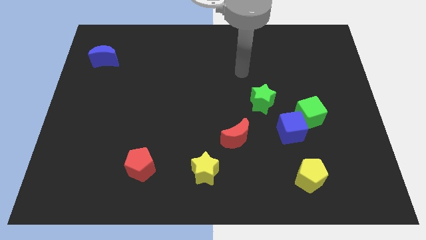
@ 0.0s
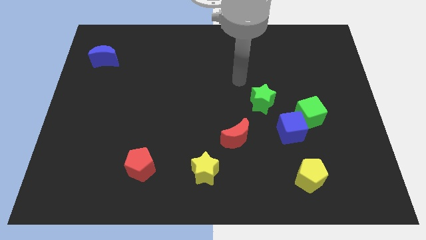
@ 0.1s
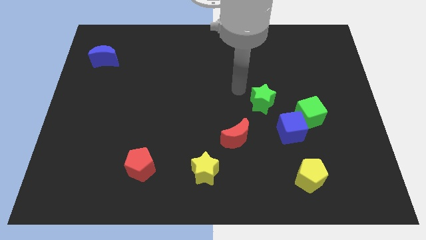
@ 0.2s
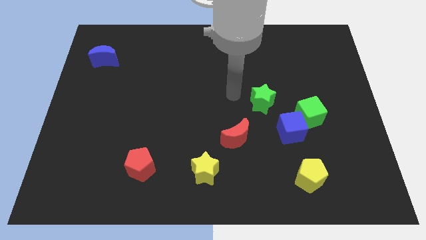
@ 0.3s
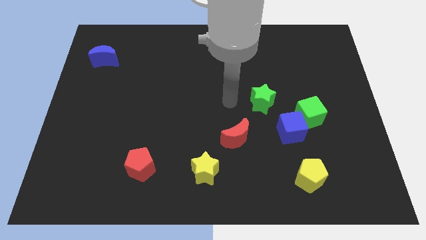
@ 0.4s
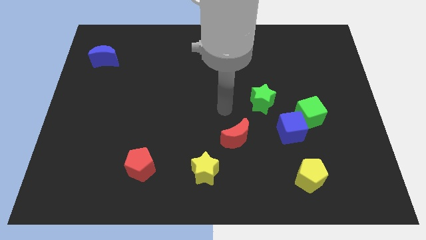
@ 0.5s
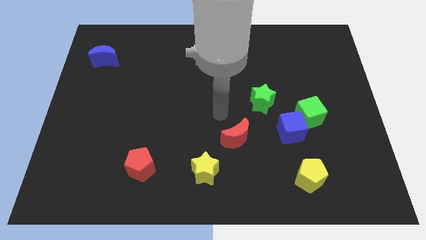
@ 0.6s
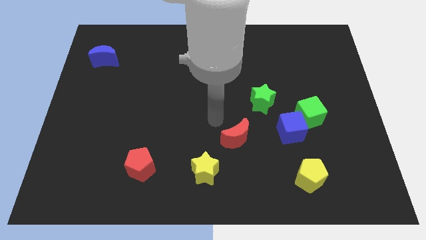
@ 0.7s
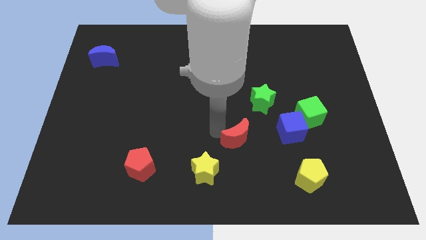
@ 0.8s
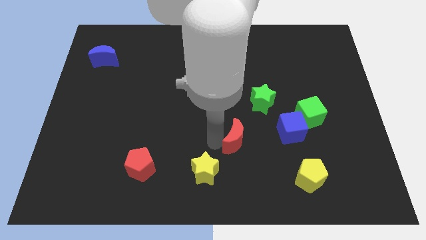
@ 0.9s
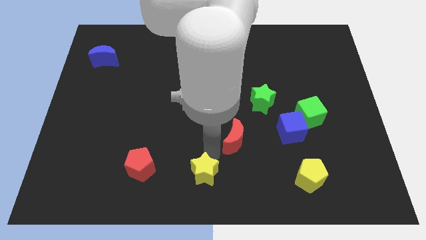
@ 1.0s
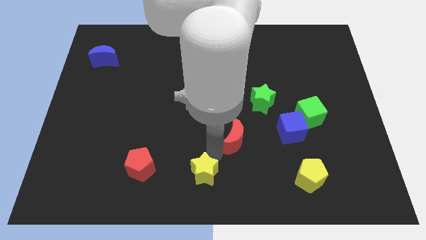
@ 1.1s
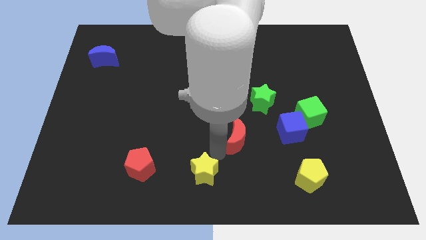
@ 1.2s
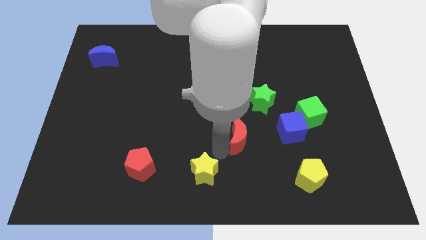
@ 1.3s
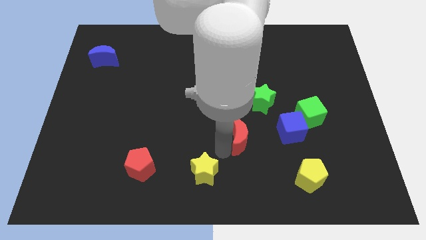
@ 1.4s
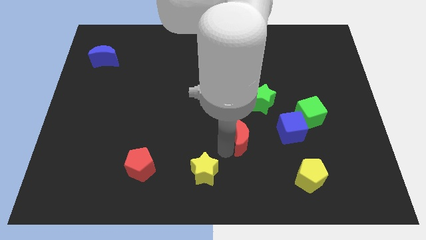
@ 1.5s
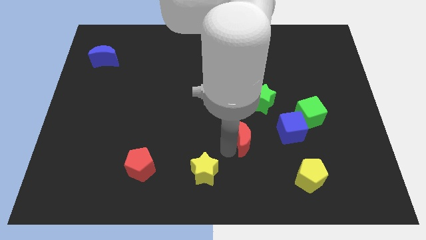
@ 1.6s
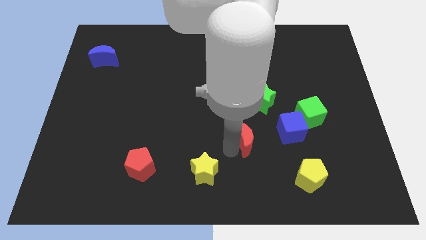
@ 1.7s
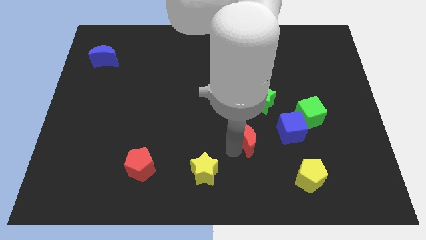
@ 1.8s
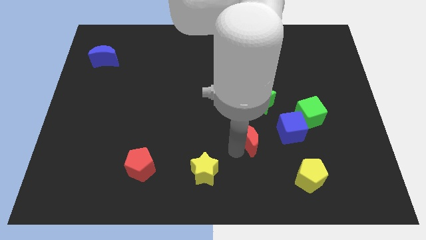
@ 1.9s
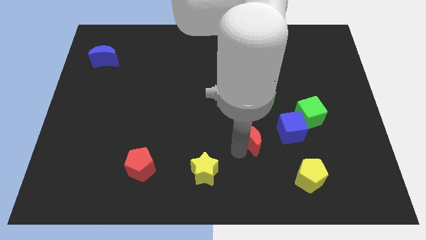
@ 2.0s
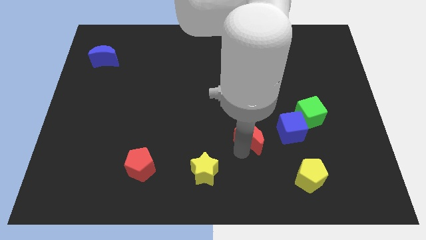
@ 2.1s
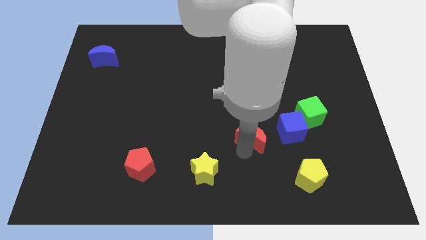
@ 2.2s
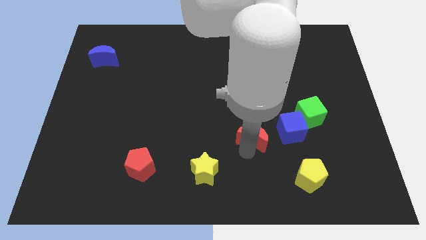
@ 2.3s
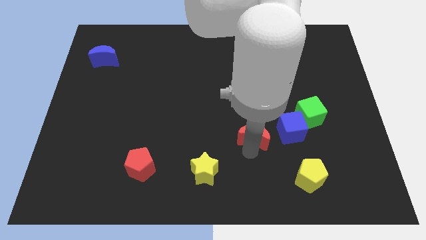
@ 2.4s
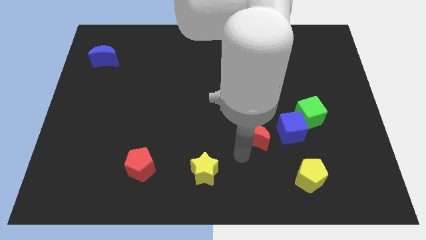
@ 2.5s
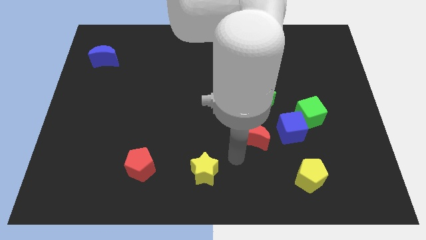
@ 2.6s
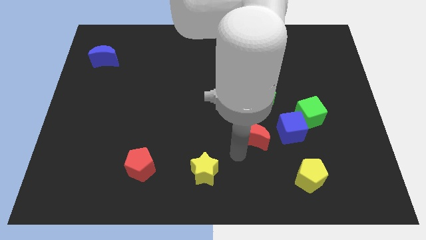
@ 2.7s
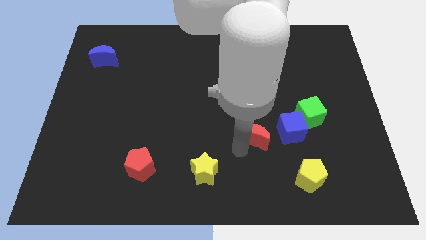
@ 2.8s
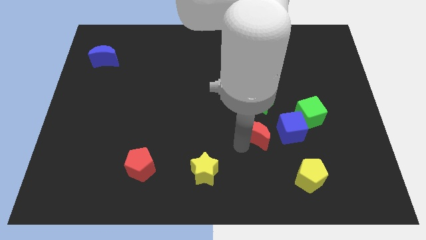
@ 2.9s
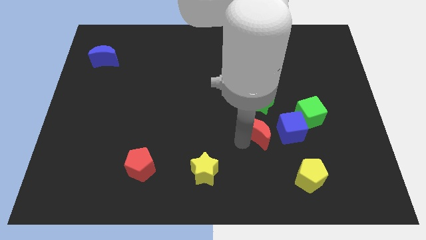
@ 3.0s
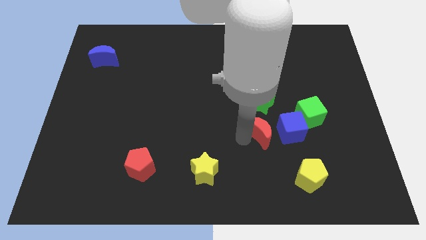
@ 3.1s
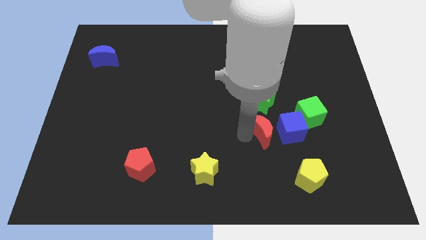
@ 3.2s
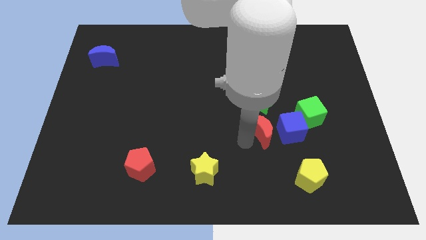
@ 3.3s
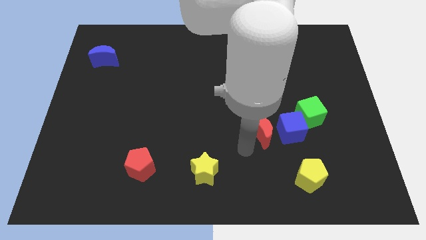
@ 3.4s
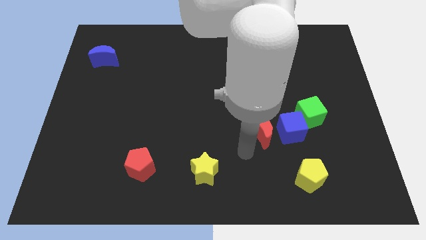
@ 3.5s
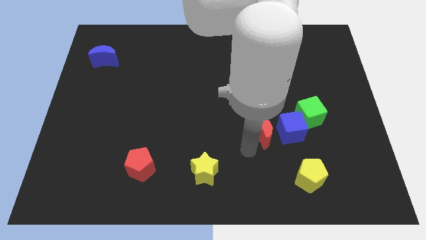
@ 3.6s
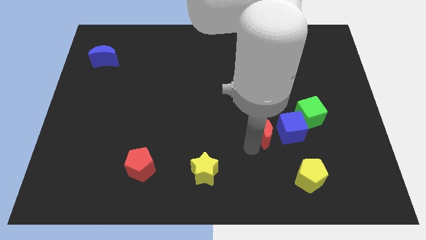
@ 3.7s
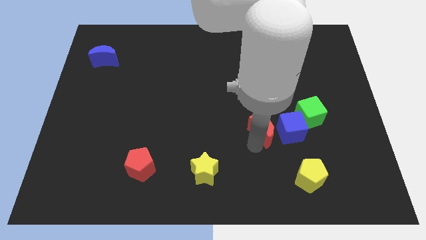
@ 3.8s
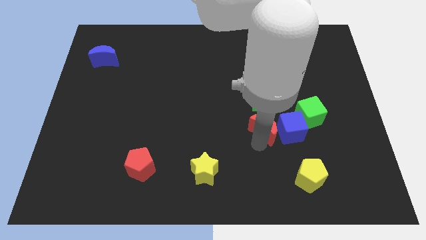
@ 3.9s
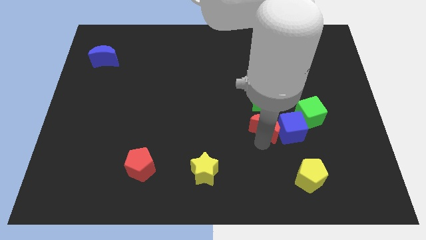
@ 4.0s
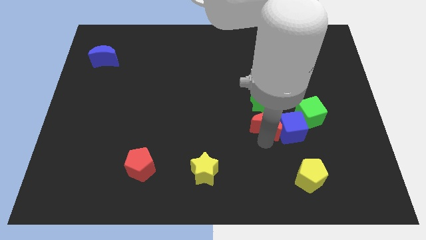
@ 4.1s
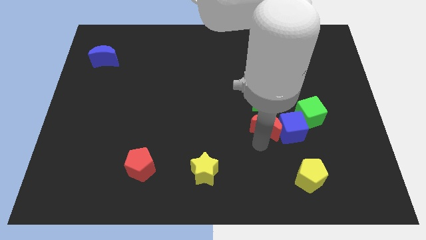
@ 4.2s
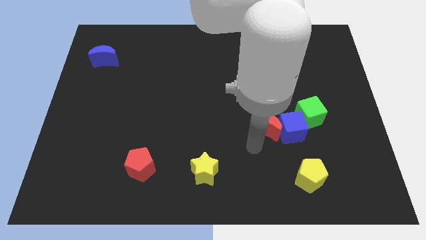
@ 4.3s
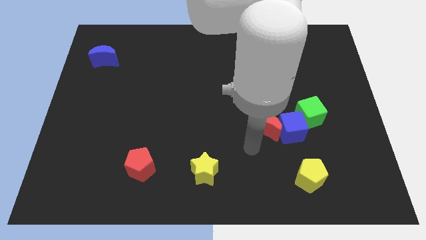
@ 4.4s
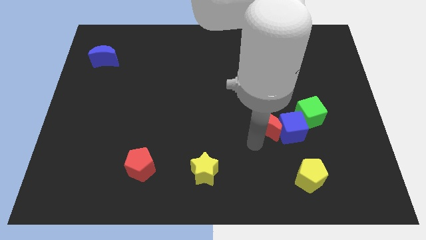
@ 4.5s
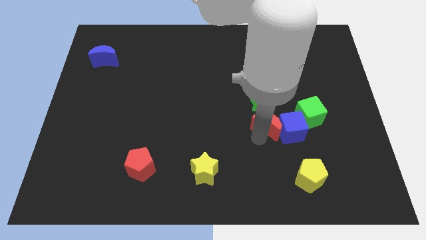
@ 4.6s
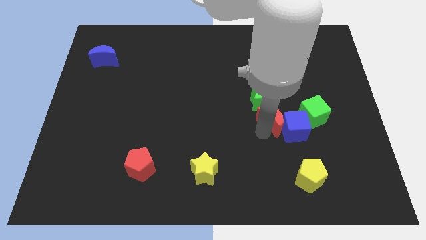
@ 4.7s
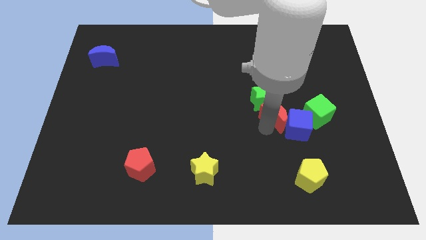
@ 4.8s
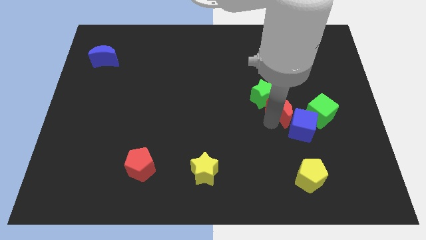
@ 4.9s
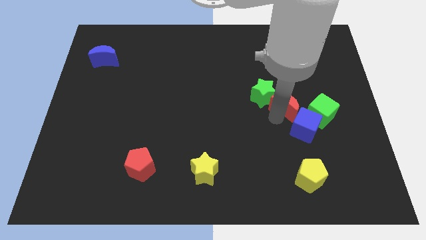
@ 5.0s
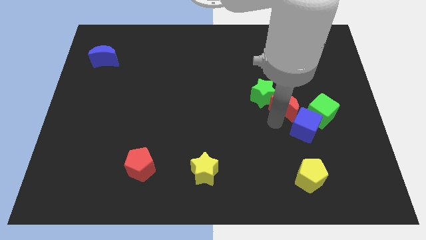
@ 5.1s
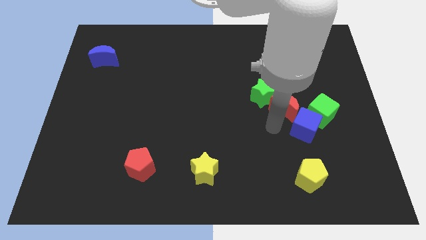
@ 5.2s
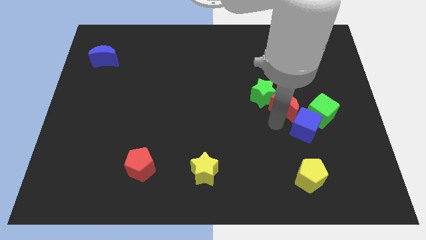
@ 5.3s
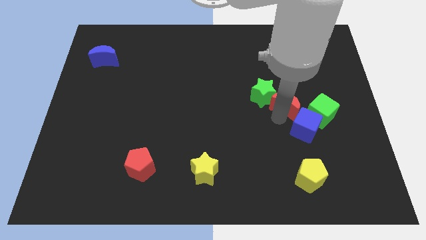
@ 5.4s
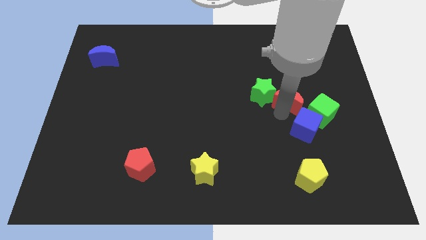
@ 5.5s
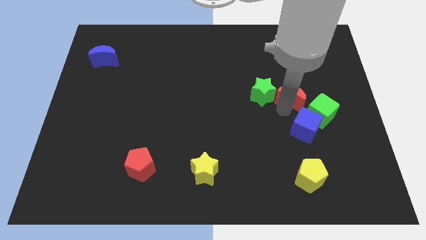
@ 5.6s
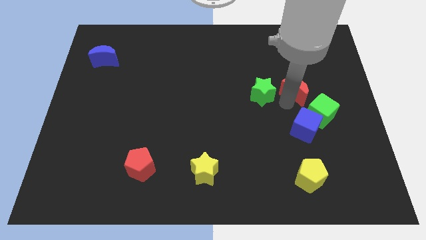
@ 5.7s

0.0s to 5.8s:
slide the red moon above the green cube
